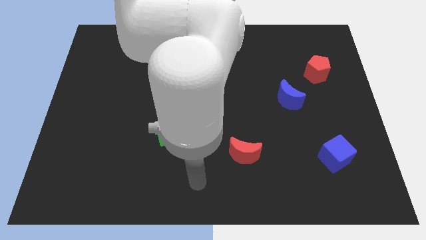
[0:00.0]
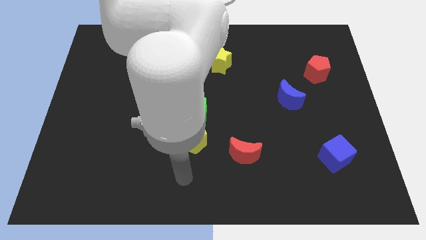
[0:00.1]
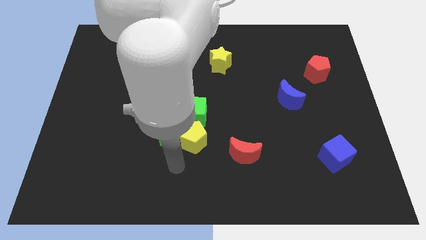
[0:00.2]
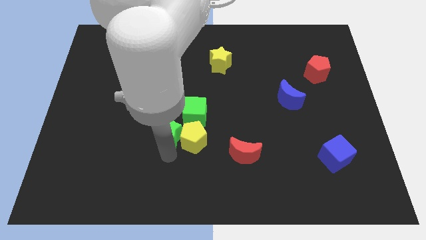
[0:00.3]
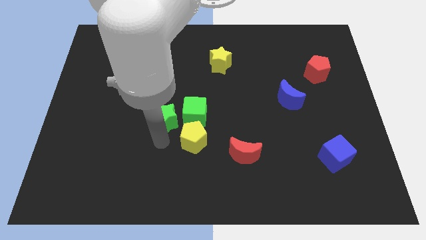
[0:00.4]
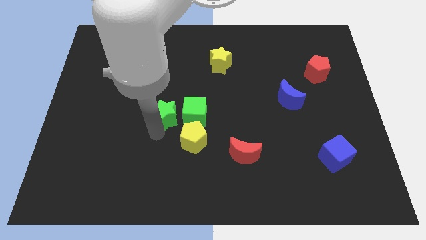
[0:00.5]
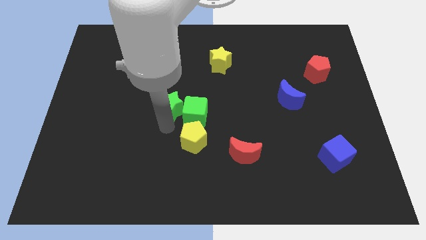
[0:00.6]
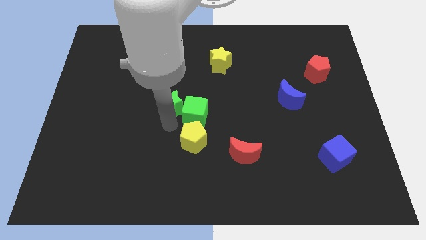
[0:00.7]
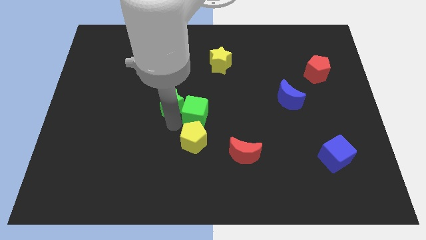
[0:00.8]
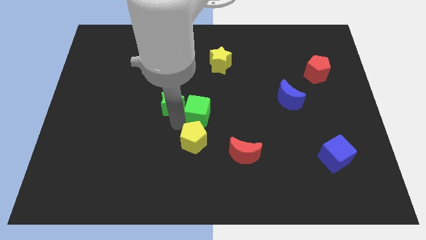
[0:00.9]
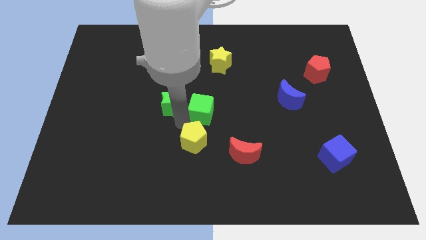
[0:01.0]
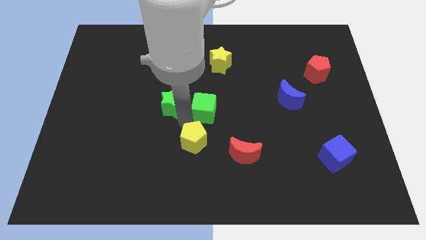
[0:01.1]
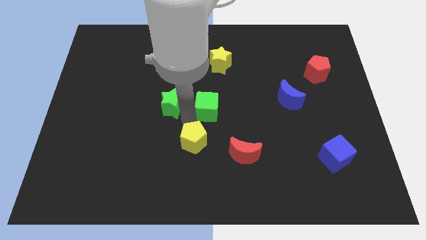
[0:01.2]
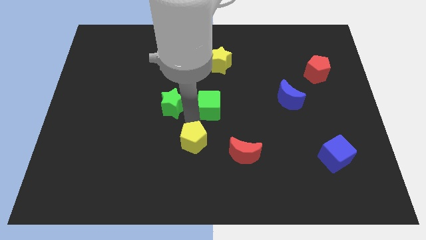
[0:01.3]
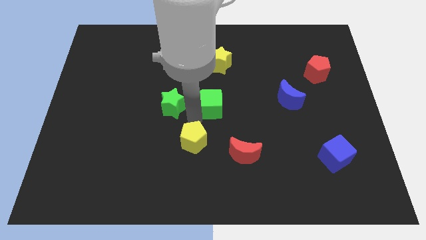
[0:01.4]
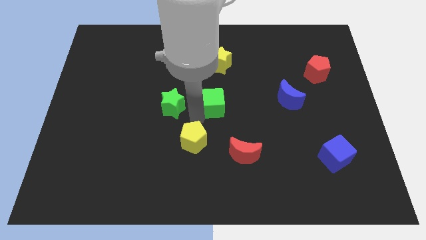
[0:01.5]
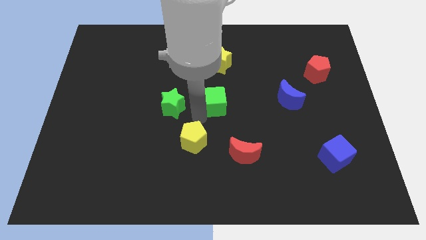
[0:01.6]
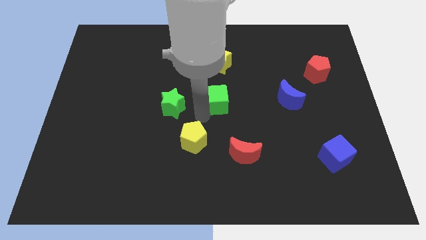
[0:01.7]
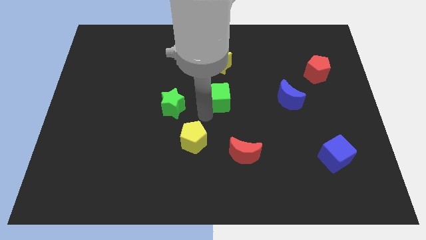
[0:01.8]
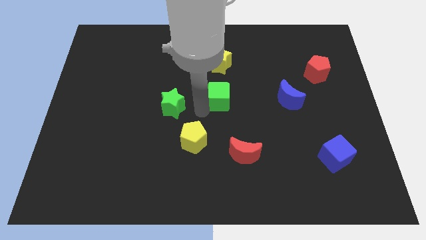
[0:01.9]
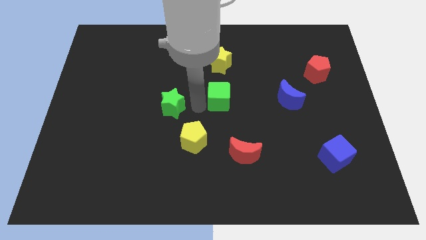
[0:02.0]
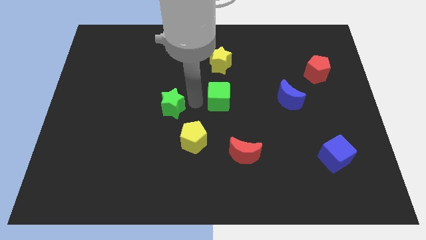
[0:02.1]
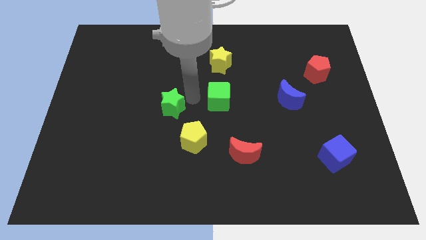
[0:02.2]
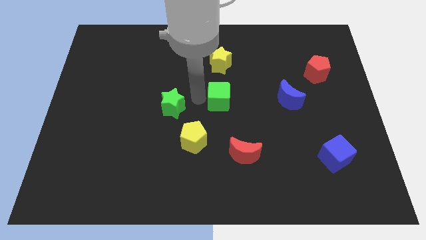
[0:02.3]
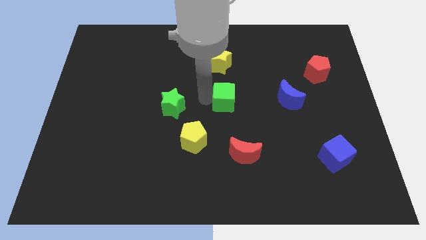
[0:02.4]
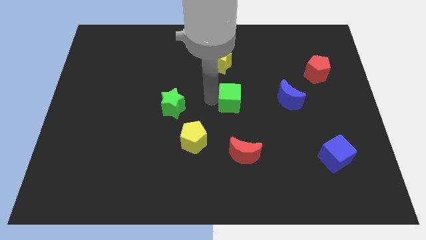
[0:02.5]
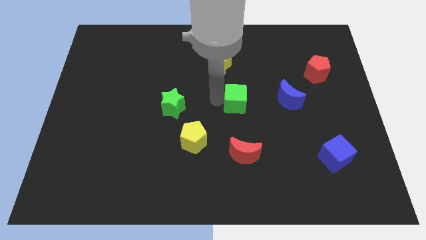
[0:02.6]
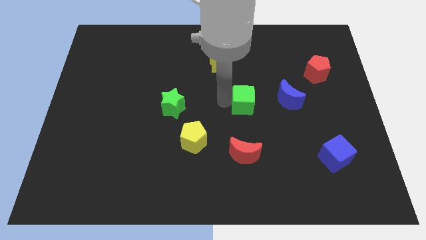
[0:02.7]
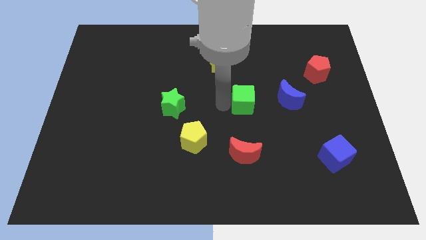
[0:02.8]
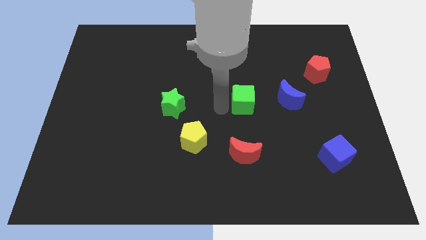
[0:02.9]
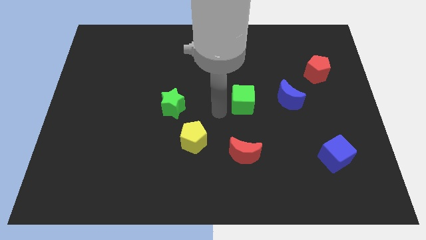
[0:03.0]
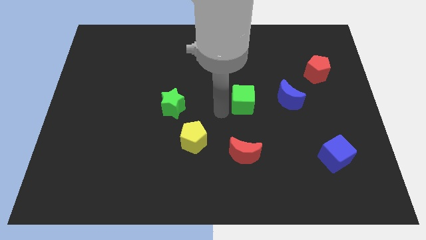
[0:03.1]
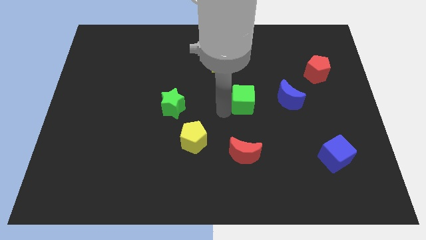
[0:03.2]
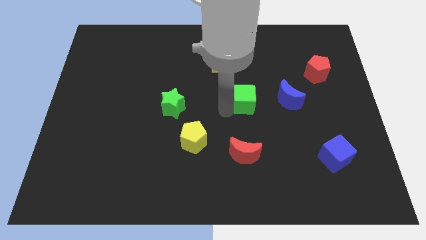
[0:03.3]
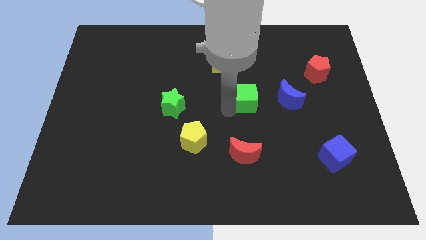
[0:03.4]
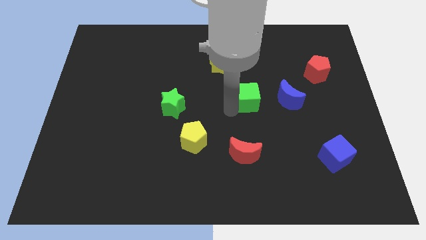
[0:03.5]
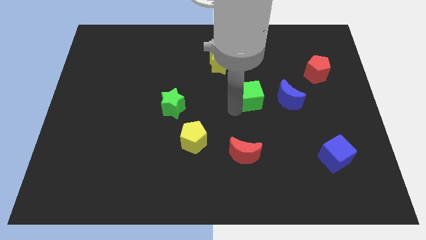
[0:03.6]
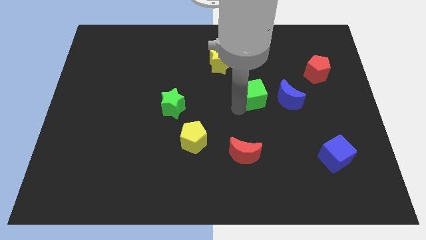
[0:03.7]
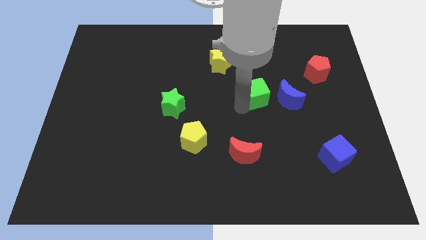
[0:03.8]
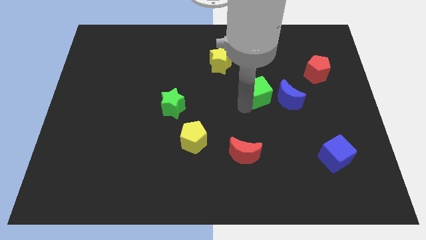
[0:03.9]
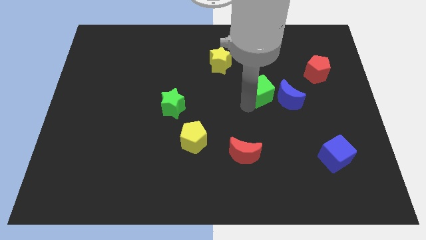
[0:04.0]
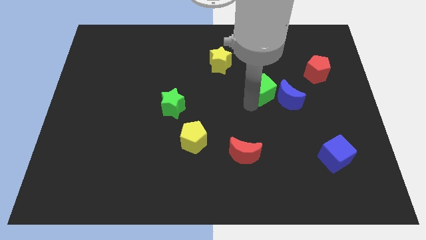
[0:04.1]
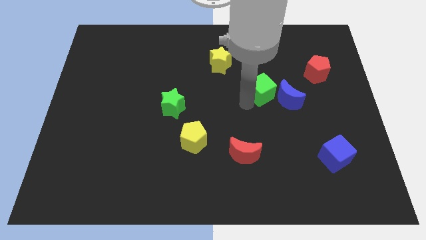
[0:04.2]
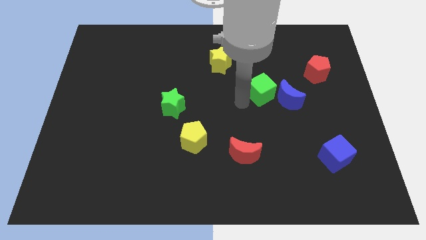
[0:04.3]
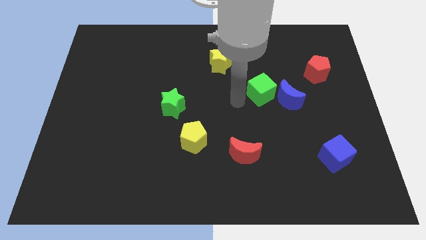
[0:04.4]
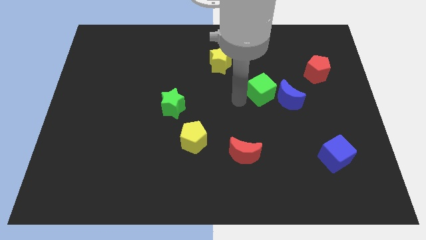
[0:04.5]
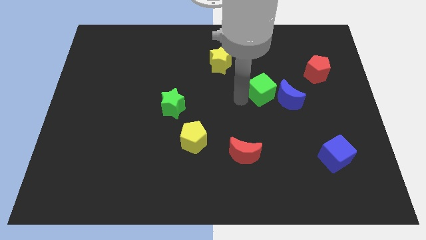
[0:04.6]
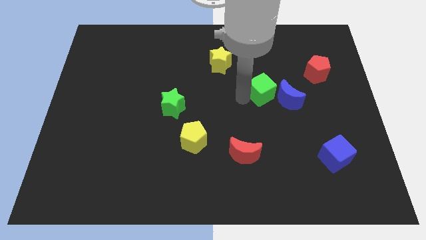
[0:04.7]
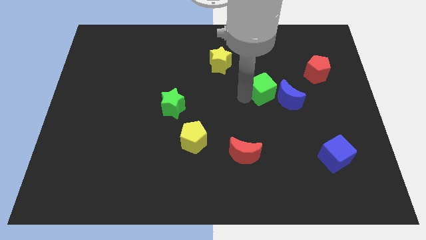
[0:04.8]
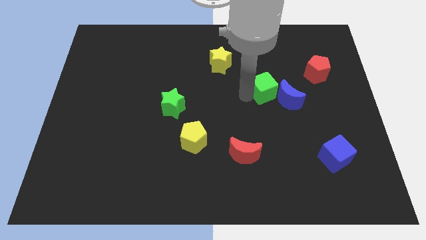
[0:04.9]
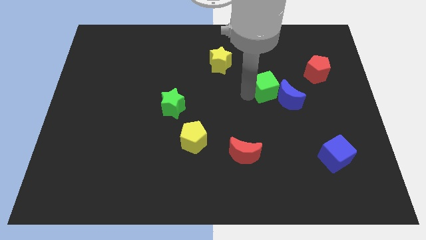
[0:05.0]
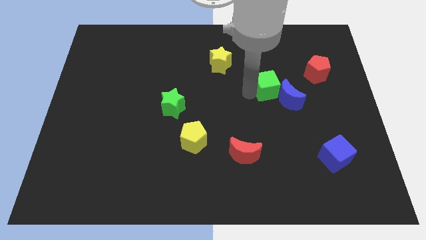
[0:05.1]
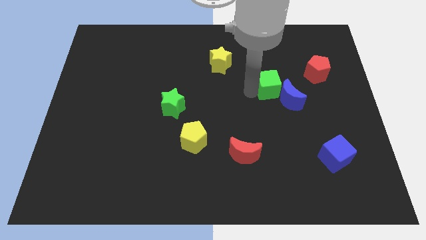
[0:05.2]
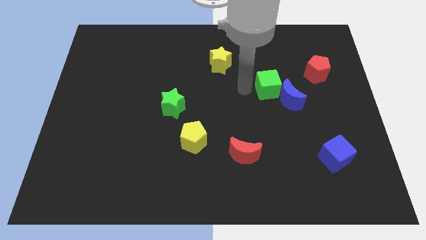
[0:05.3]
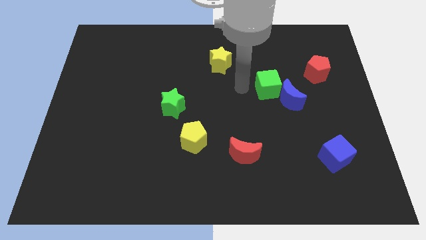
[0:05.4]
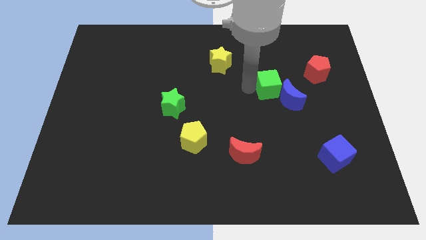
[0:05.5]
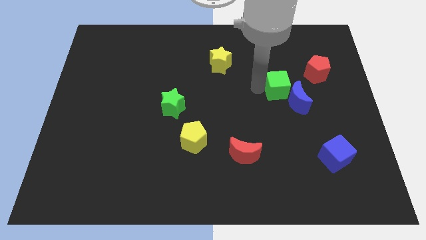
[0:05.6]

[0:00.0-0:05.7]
slide the green cube diagonally down and to the left of the red pentagon

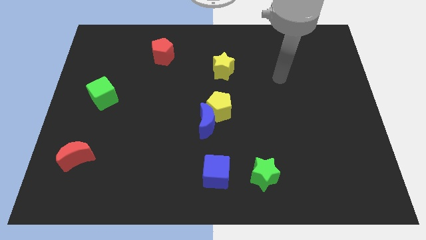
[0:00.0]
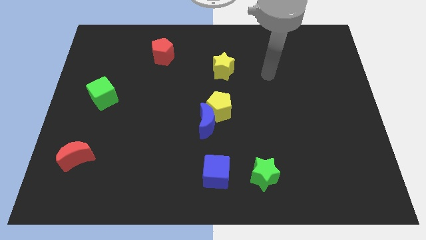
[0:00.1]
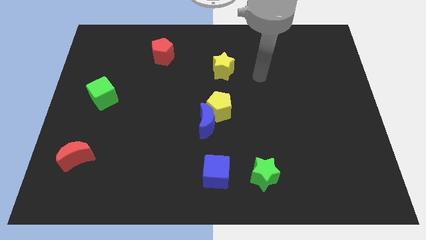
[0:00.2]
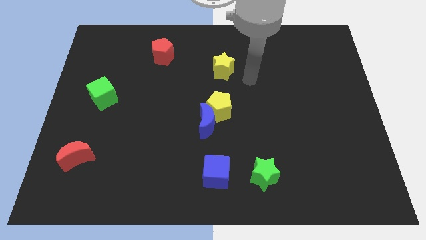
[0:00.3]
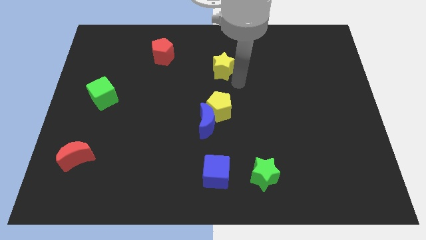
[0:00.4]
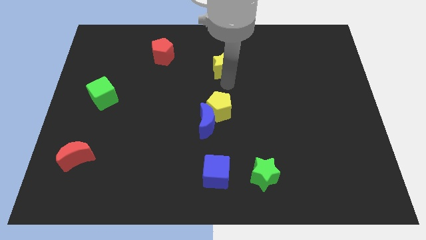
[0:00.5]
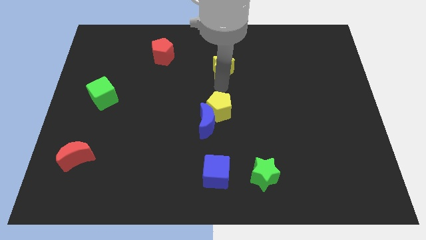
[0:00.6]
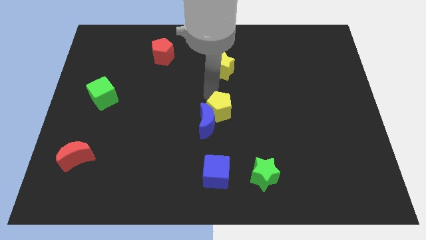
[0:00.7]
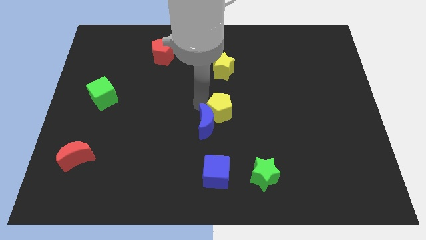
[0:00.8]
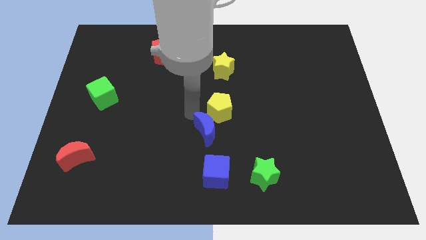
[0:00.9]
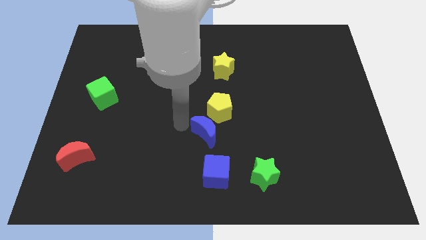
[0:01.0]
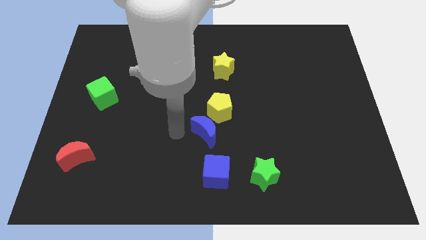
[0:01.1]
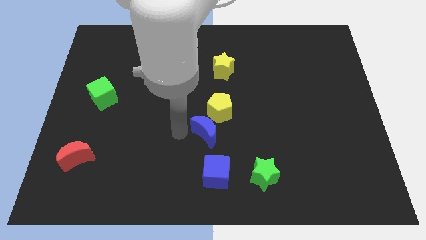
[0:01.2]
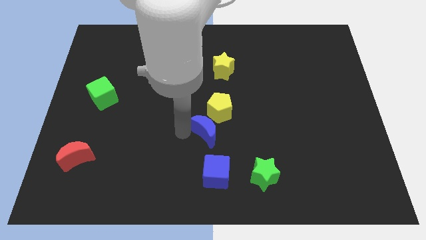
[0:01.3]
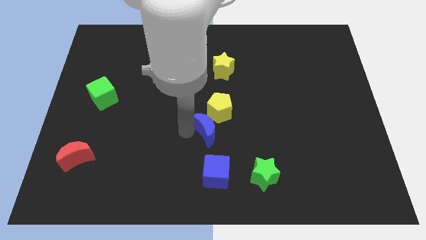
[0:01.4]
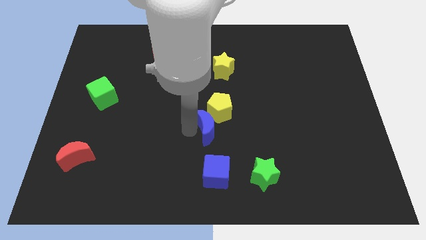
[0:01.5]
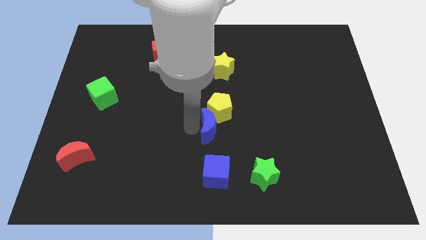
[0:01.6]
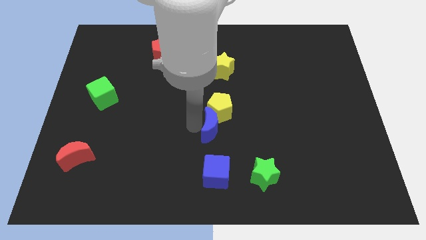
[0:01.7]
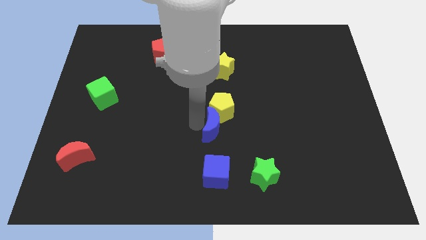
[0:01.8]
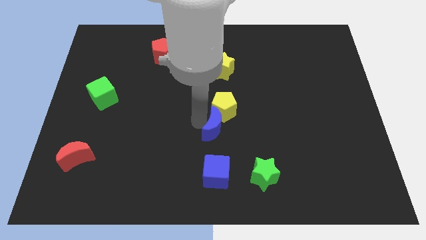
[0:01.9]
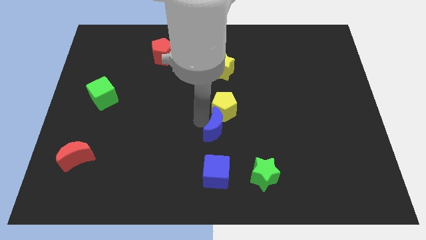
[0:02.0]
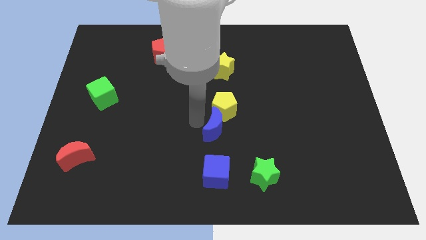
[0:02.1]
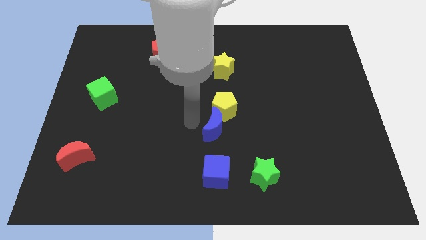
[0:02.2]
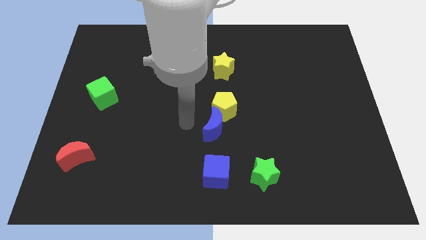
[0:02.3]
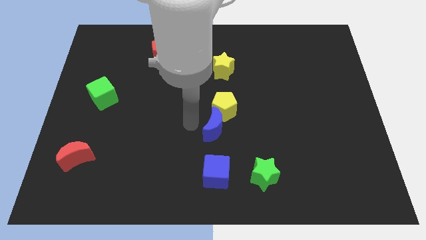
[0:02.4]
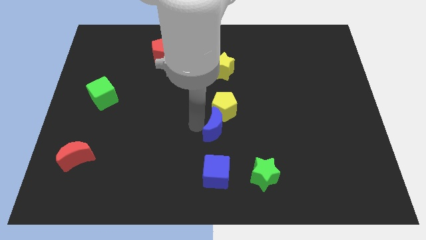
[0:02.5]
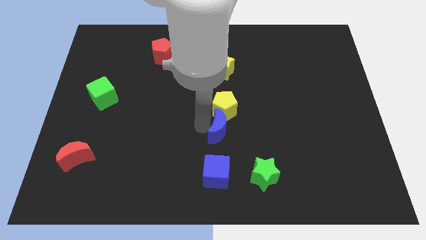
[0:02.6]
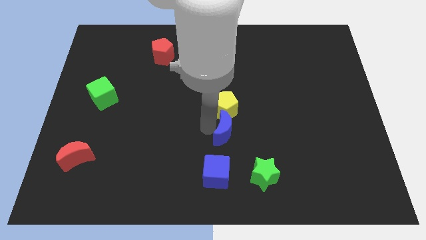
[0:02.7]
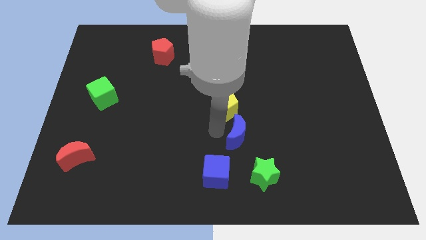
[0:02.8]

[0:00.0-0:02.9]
put the blue moon to the top side of the green star
